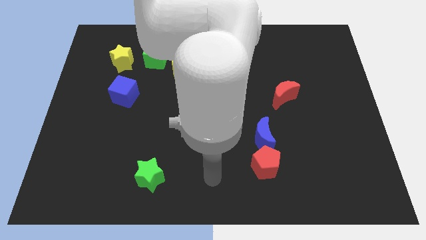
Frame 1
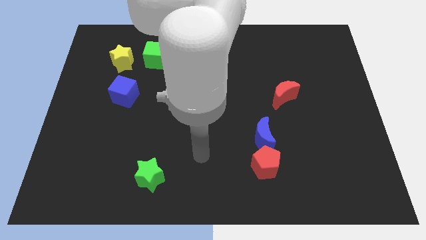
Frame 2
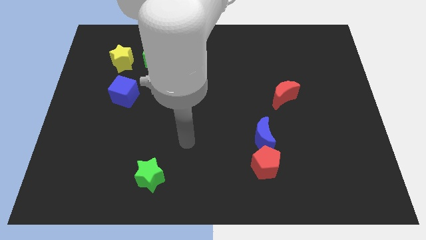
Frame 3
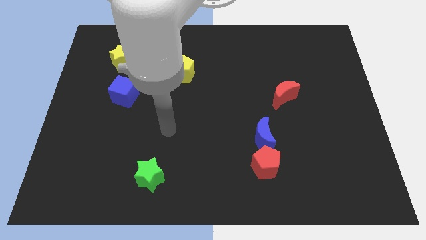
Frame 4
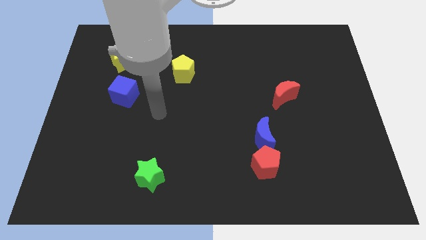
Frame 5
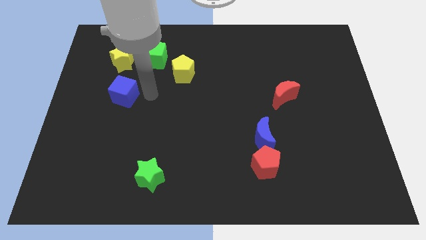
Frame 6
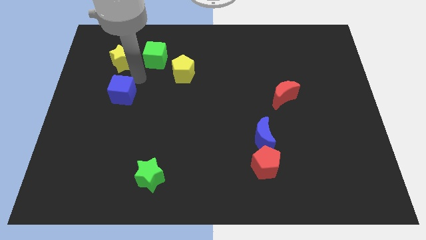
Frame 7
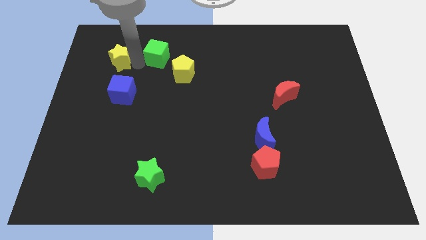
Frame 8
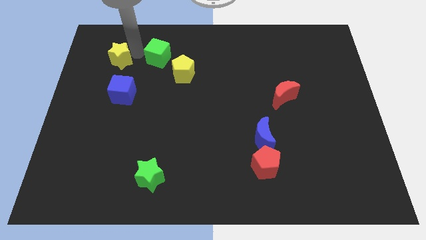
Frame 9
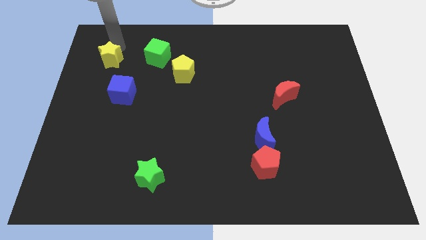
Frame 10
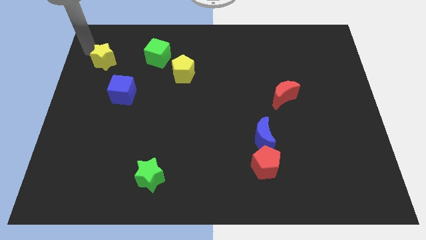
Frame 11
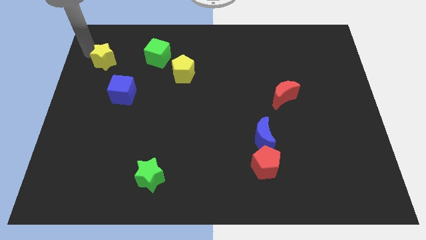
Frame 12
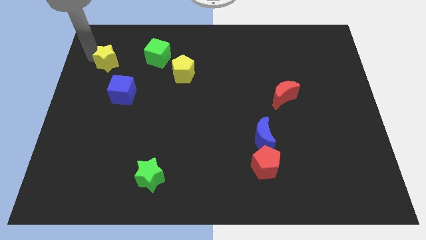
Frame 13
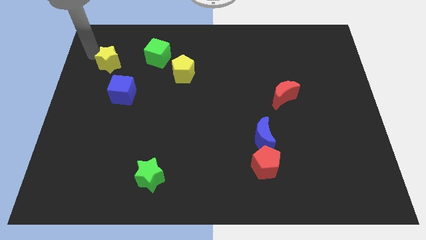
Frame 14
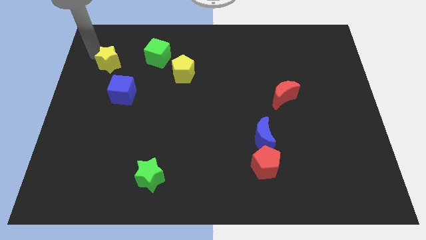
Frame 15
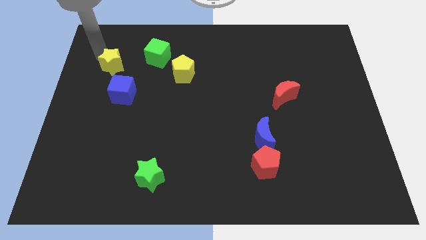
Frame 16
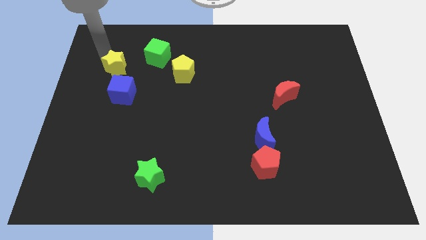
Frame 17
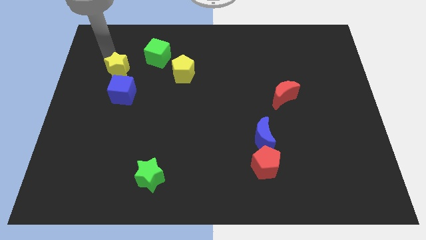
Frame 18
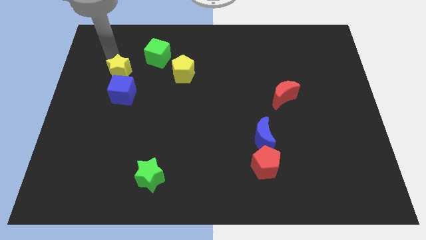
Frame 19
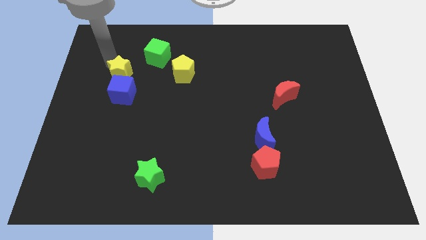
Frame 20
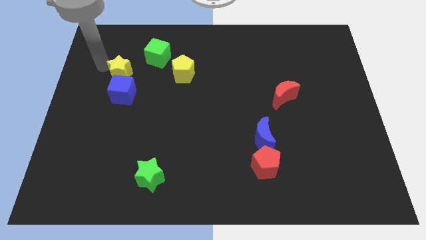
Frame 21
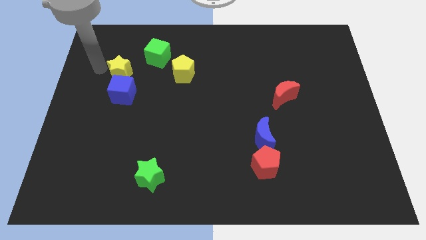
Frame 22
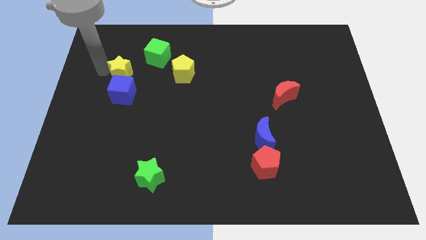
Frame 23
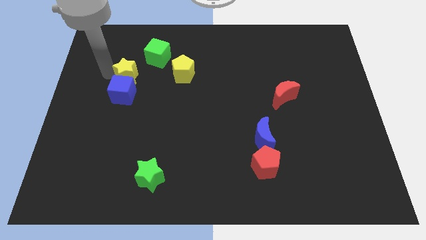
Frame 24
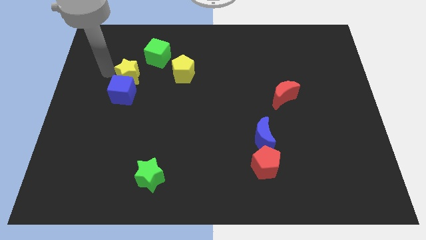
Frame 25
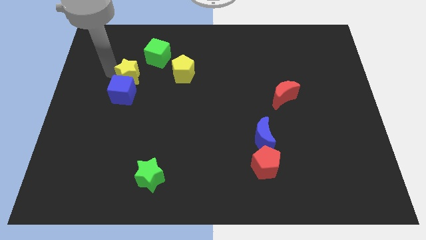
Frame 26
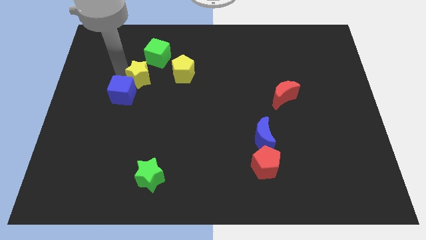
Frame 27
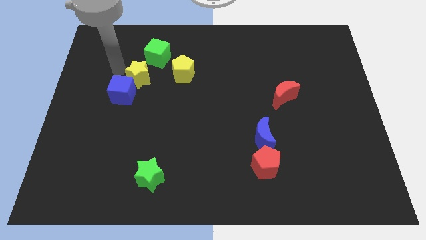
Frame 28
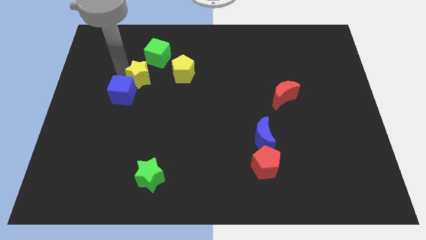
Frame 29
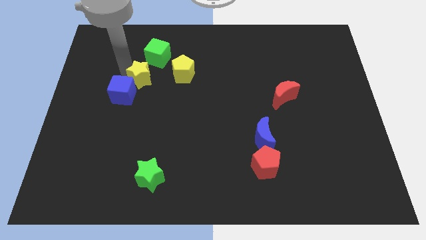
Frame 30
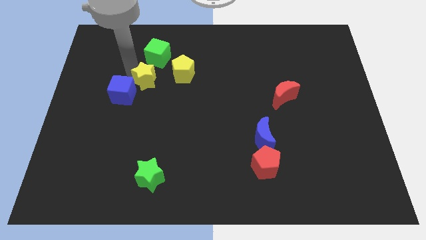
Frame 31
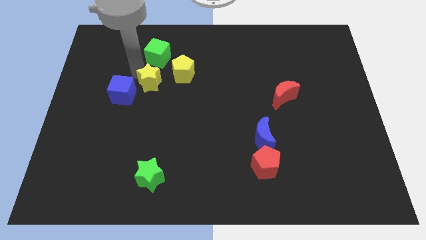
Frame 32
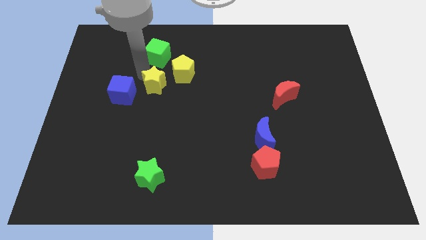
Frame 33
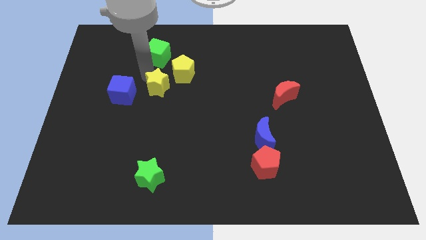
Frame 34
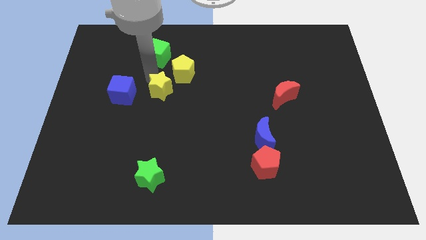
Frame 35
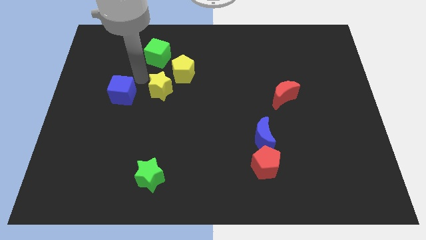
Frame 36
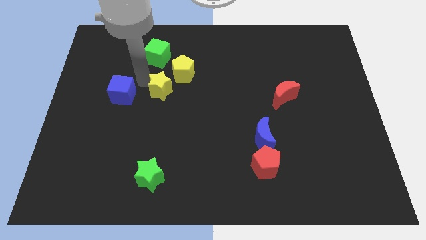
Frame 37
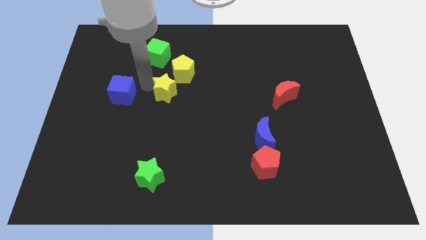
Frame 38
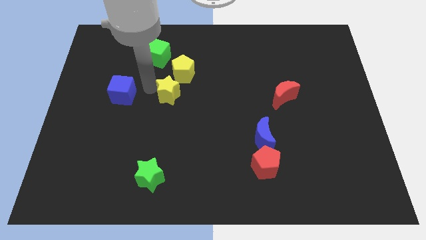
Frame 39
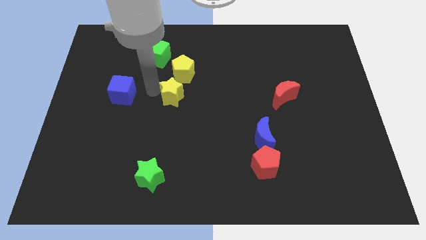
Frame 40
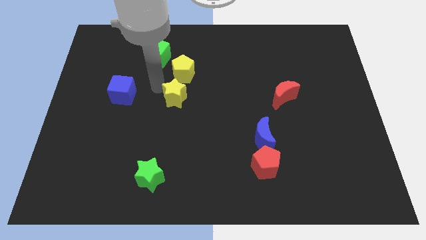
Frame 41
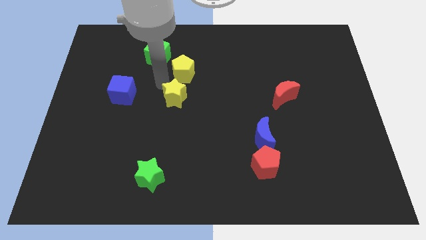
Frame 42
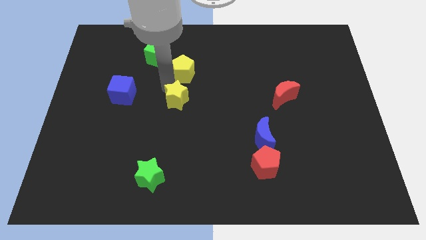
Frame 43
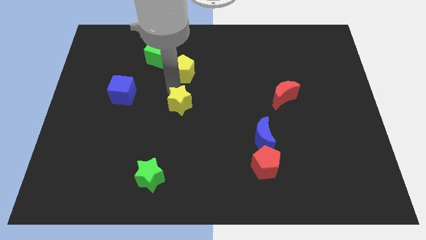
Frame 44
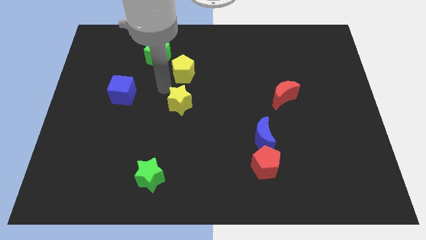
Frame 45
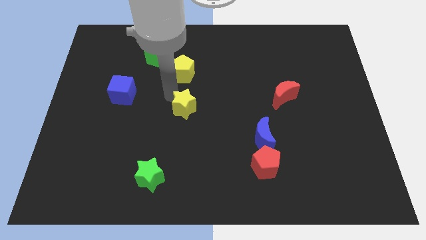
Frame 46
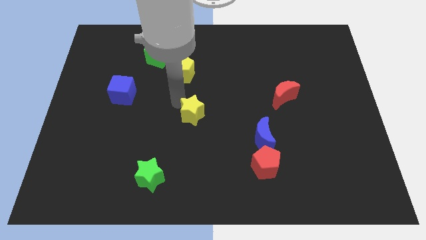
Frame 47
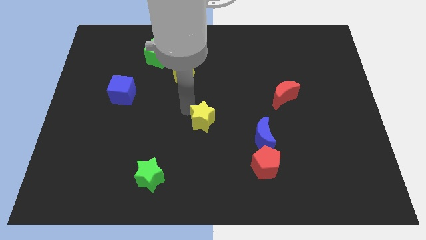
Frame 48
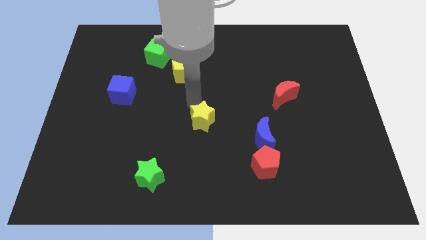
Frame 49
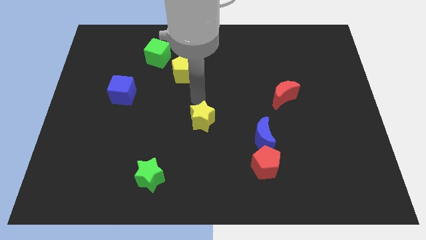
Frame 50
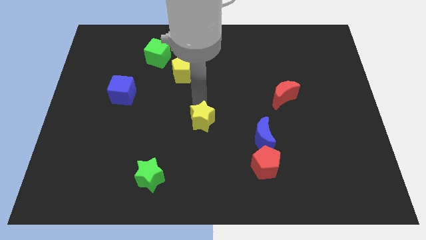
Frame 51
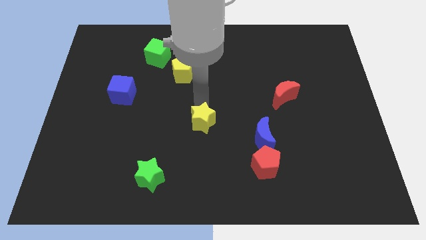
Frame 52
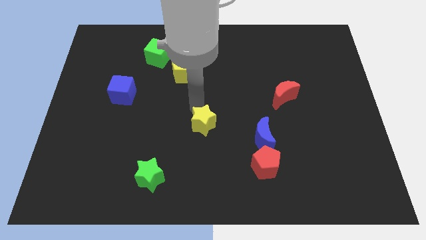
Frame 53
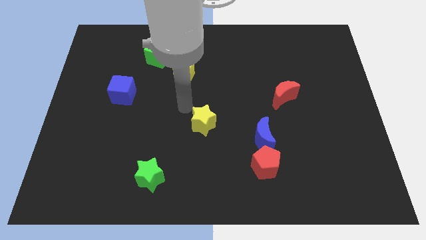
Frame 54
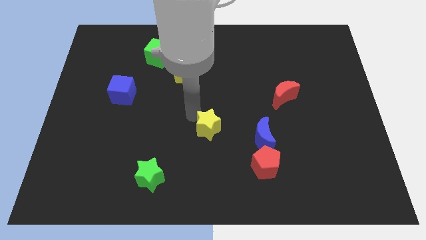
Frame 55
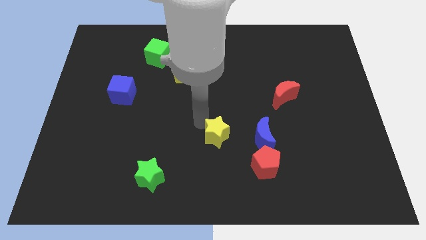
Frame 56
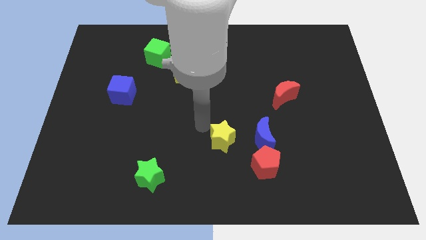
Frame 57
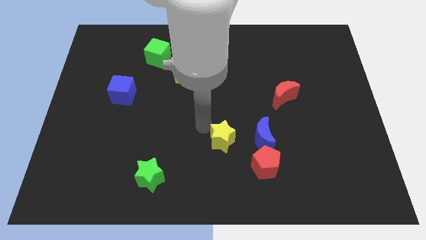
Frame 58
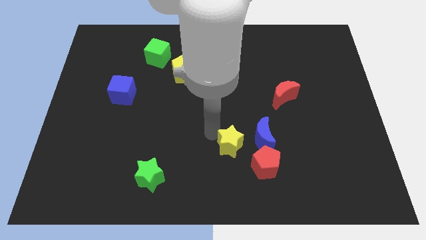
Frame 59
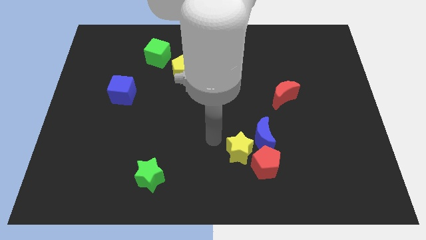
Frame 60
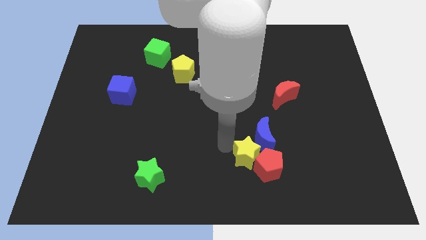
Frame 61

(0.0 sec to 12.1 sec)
put the yellow star to the red pentagon

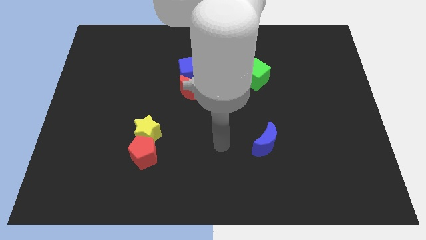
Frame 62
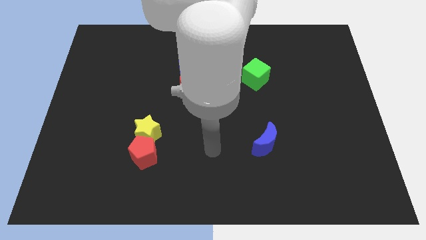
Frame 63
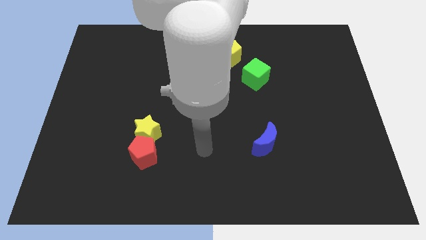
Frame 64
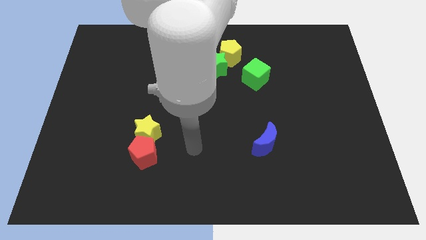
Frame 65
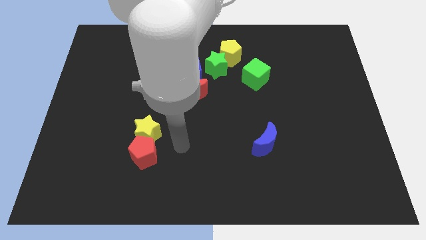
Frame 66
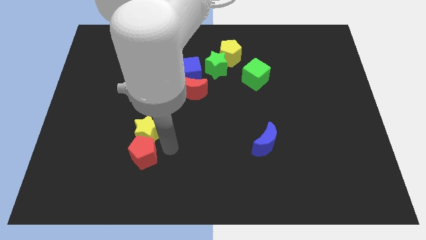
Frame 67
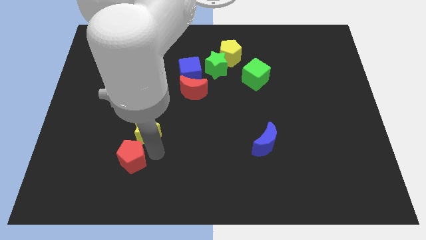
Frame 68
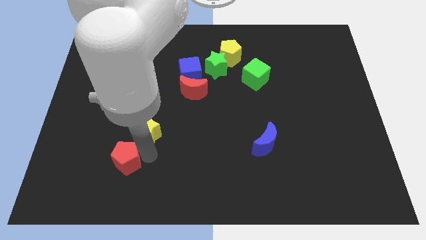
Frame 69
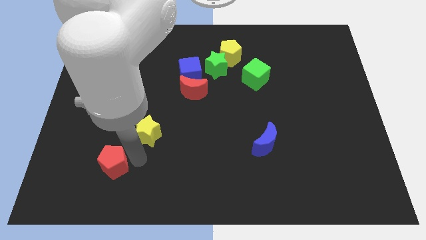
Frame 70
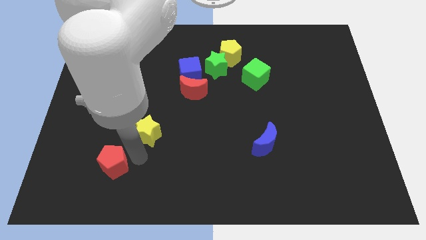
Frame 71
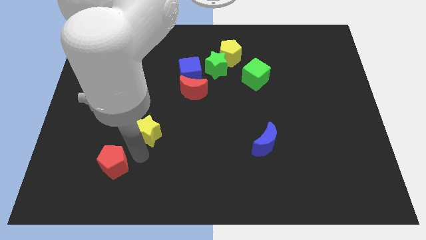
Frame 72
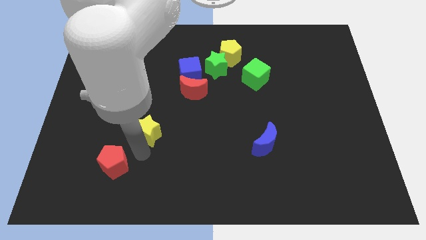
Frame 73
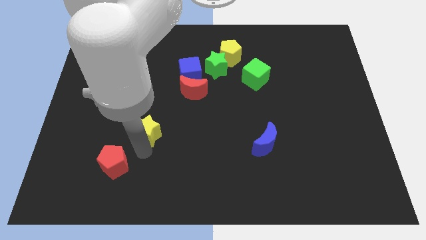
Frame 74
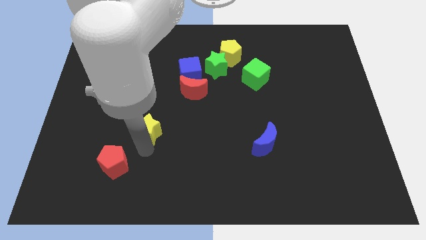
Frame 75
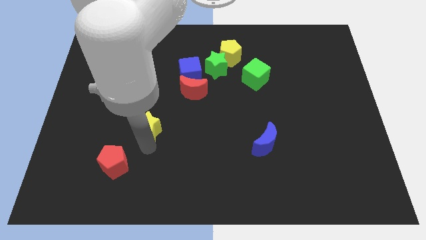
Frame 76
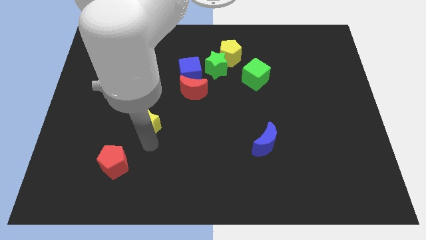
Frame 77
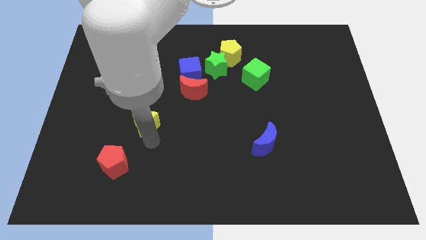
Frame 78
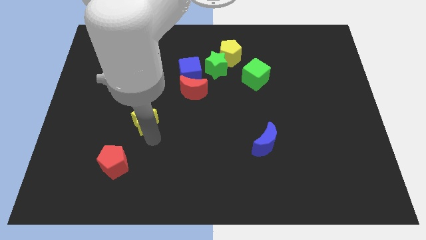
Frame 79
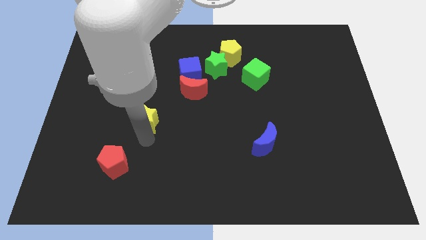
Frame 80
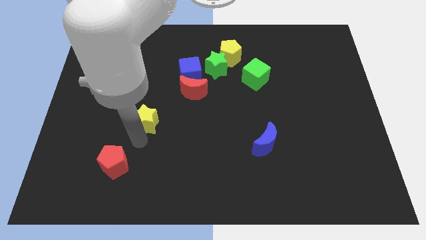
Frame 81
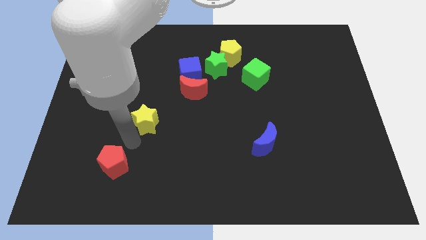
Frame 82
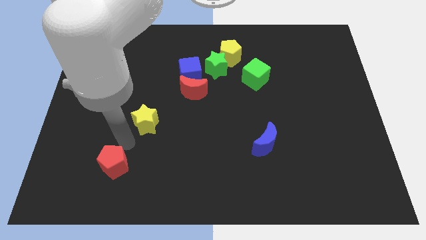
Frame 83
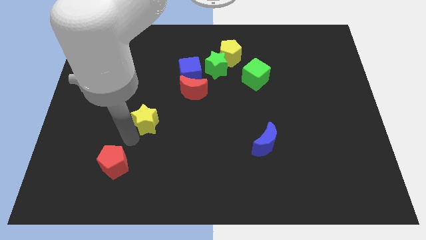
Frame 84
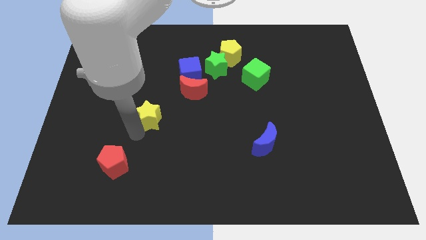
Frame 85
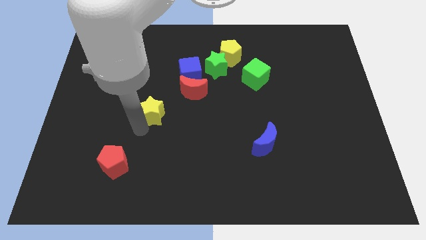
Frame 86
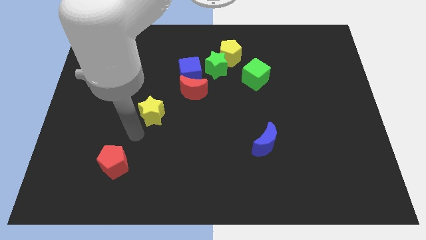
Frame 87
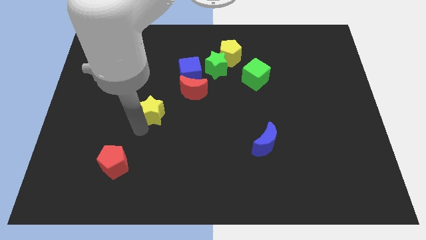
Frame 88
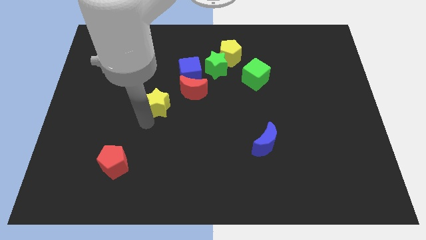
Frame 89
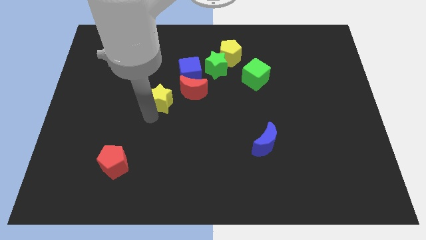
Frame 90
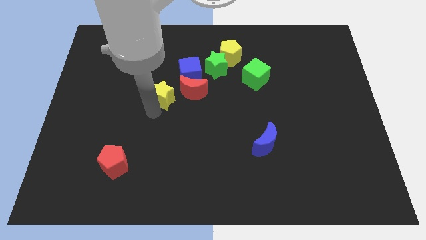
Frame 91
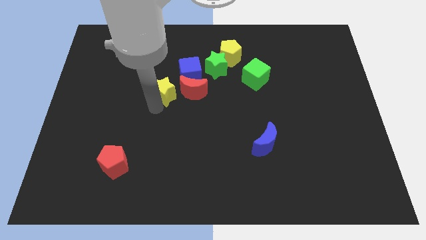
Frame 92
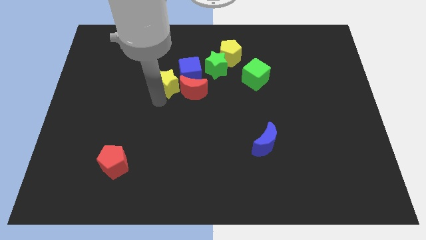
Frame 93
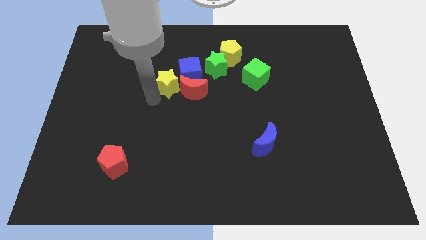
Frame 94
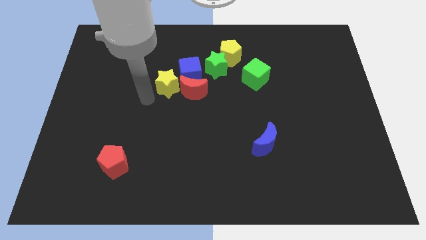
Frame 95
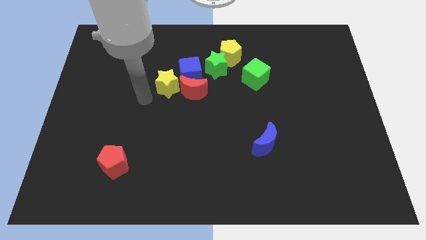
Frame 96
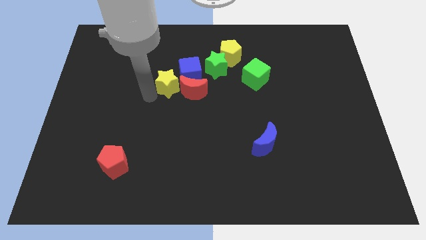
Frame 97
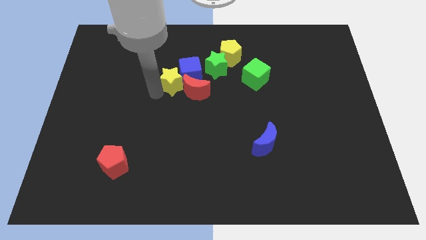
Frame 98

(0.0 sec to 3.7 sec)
move the yellow star to the blue cube
